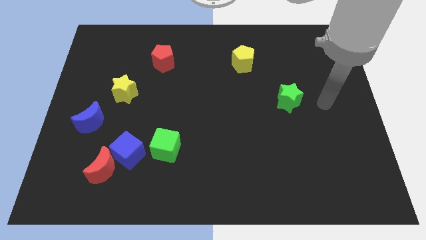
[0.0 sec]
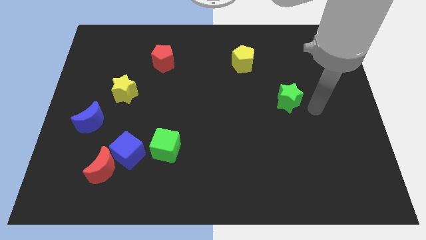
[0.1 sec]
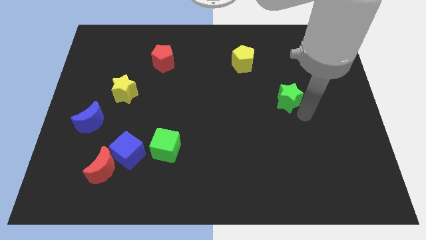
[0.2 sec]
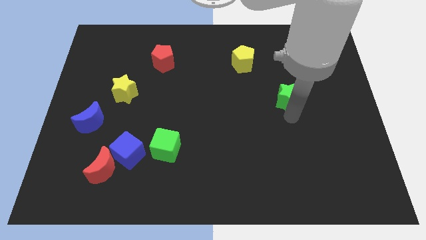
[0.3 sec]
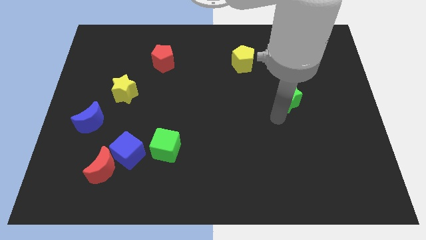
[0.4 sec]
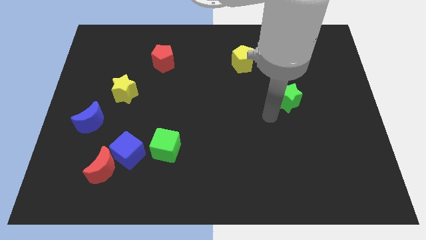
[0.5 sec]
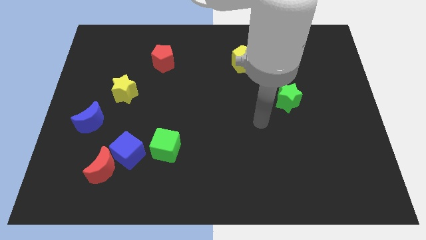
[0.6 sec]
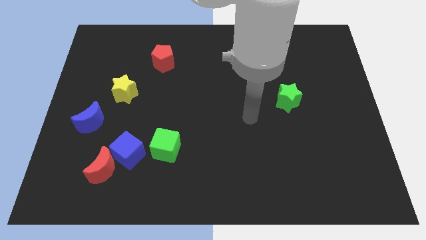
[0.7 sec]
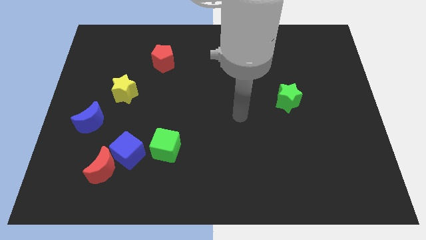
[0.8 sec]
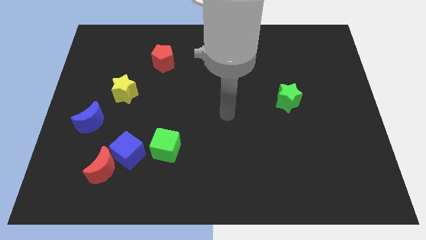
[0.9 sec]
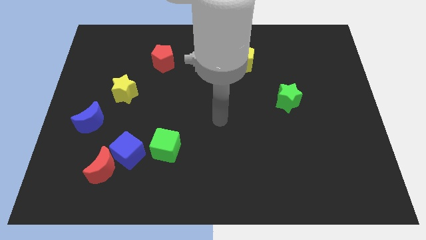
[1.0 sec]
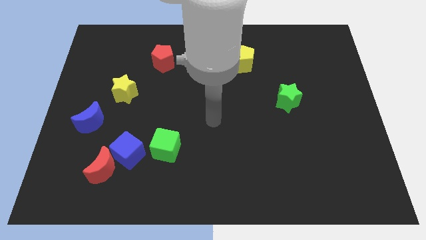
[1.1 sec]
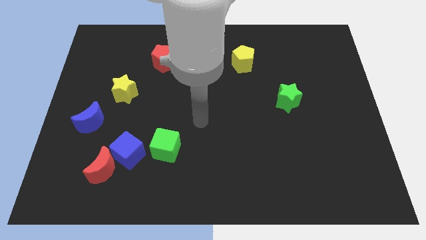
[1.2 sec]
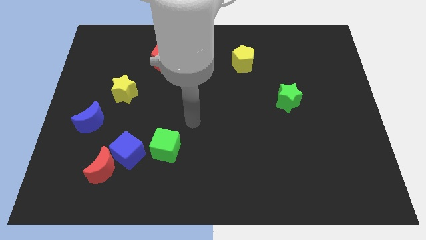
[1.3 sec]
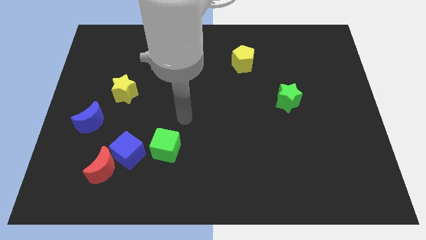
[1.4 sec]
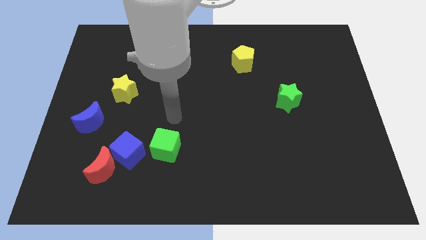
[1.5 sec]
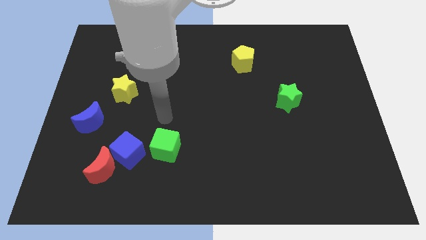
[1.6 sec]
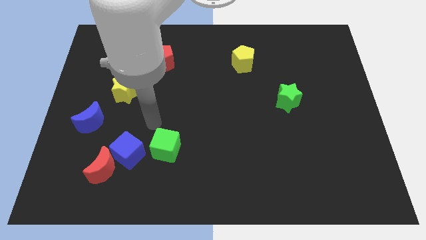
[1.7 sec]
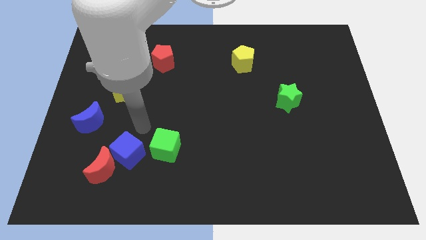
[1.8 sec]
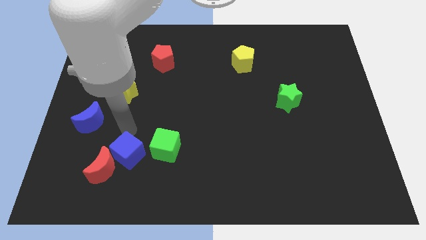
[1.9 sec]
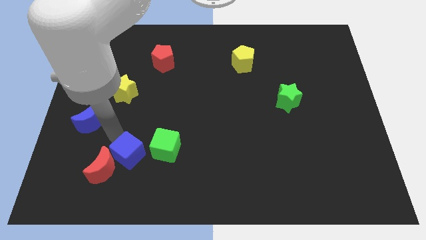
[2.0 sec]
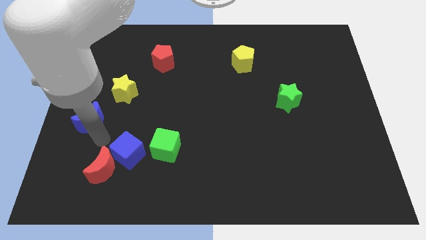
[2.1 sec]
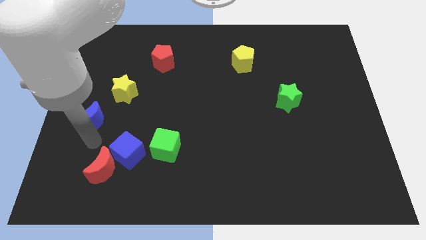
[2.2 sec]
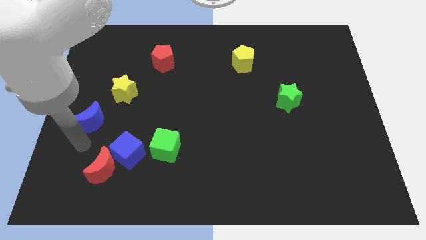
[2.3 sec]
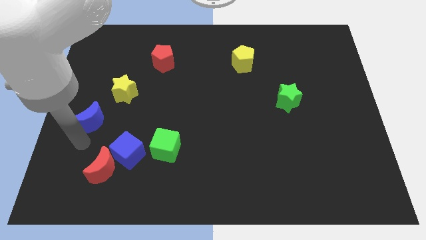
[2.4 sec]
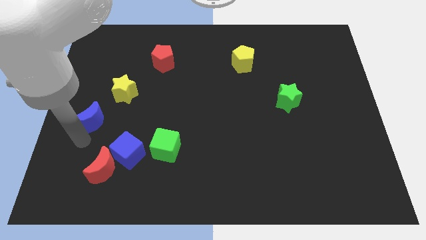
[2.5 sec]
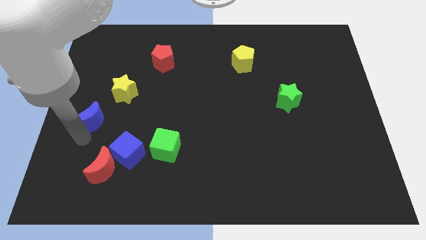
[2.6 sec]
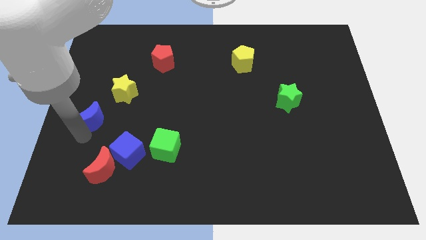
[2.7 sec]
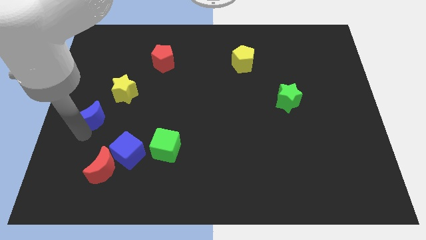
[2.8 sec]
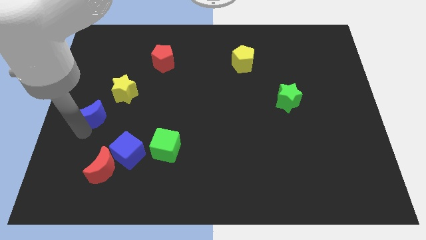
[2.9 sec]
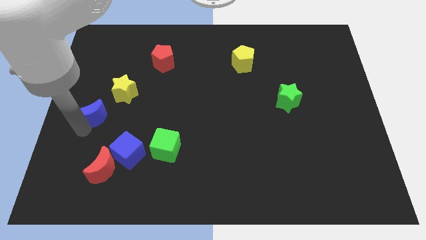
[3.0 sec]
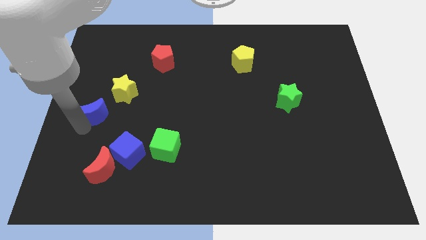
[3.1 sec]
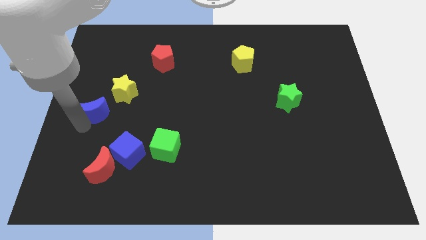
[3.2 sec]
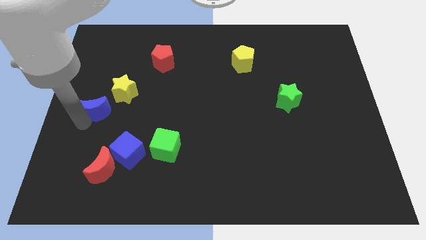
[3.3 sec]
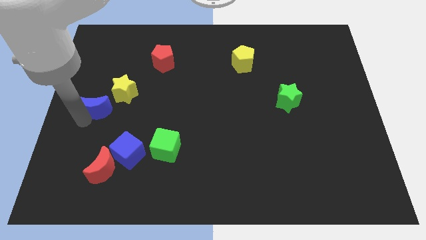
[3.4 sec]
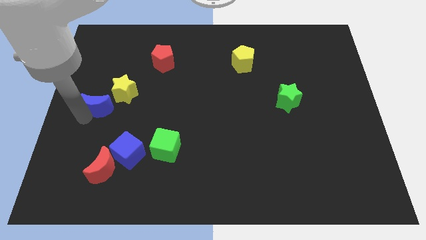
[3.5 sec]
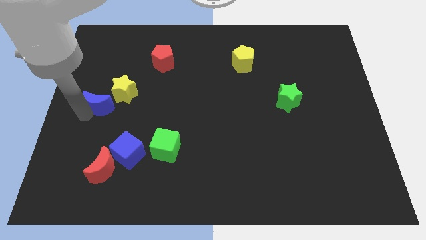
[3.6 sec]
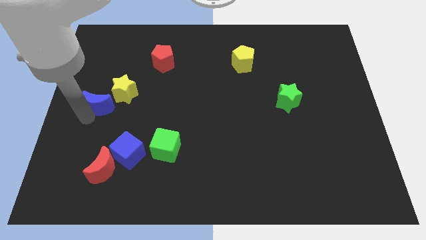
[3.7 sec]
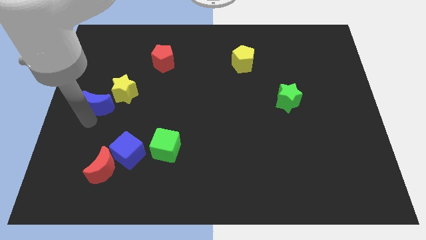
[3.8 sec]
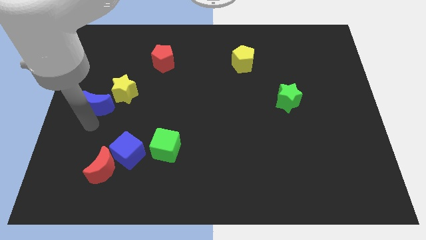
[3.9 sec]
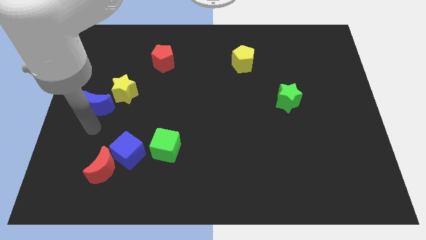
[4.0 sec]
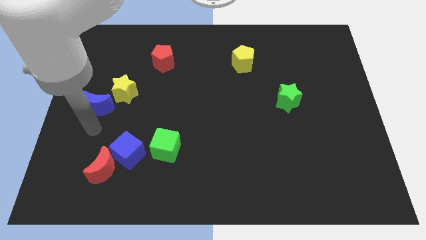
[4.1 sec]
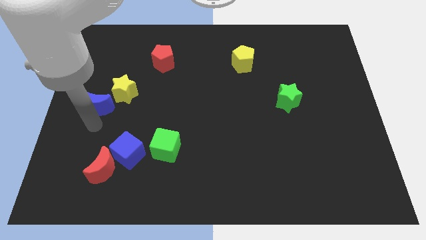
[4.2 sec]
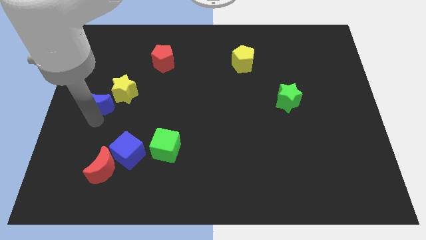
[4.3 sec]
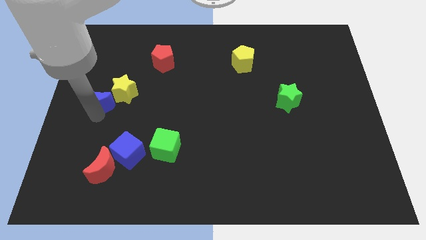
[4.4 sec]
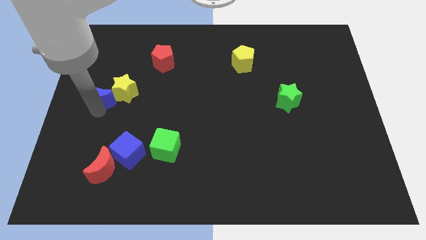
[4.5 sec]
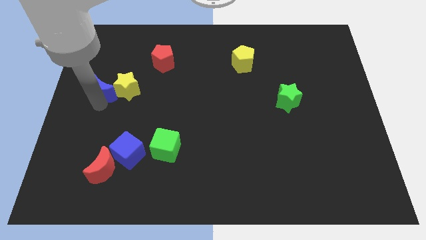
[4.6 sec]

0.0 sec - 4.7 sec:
slide the blue moon up a little bit

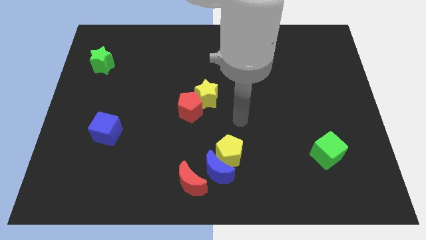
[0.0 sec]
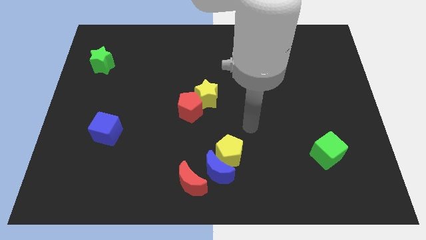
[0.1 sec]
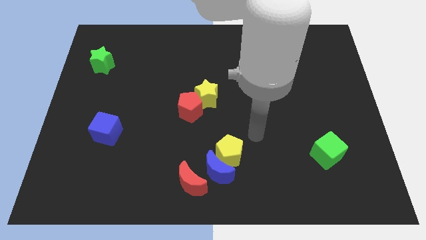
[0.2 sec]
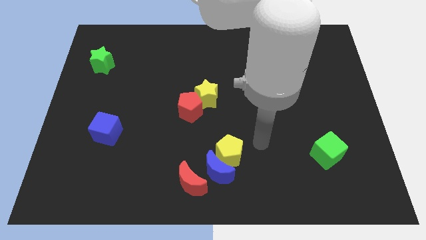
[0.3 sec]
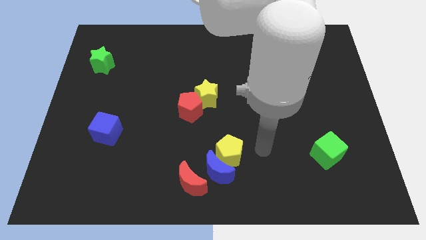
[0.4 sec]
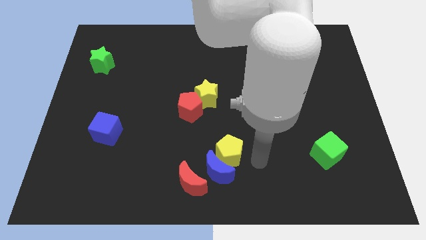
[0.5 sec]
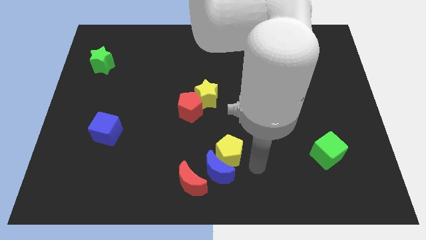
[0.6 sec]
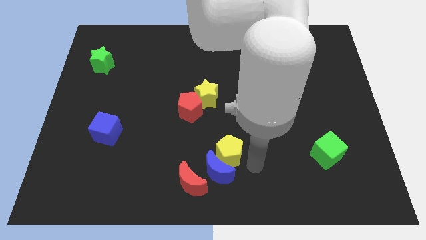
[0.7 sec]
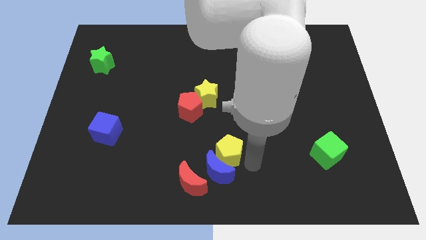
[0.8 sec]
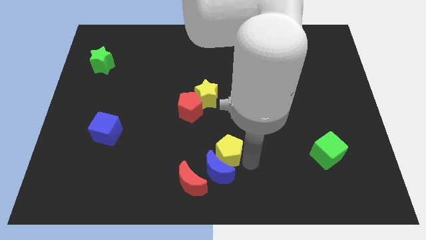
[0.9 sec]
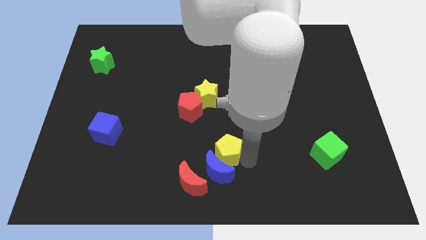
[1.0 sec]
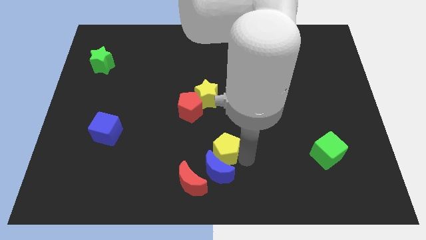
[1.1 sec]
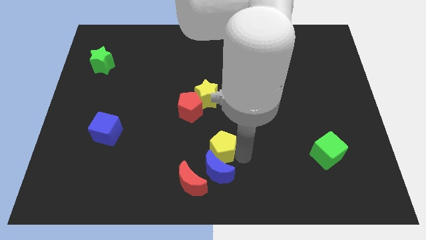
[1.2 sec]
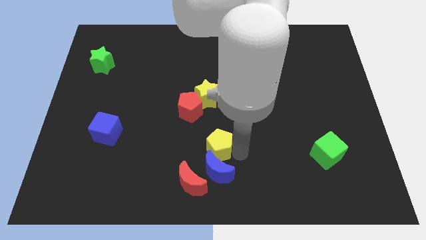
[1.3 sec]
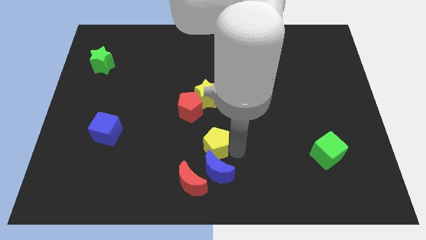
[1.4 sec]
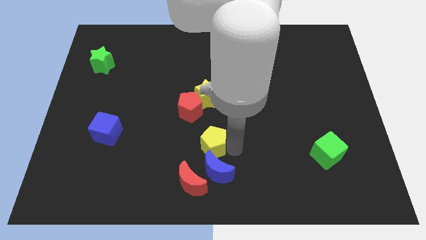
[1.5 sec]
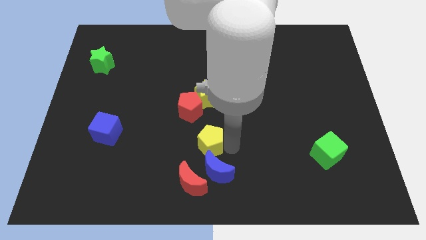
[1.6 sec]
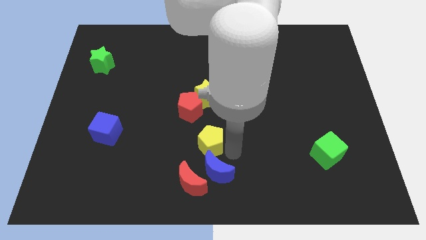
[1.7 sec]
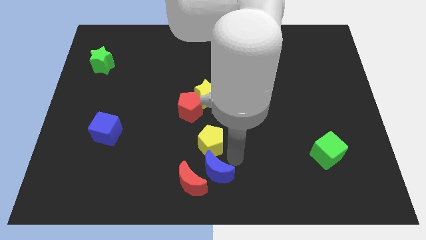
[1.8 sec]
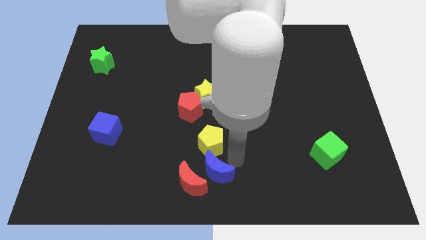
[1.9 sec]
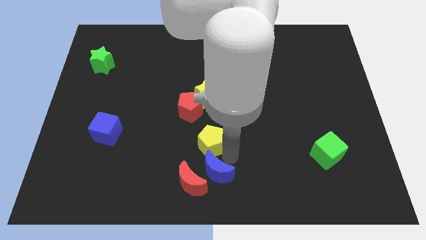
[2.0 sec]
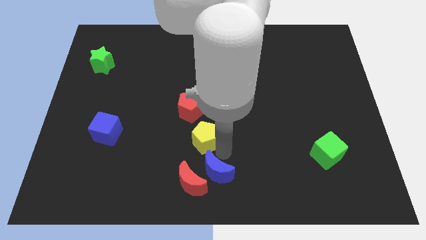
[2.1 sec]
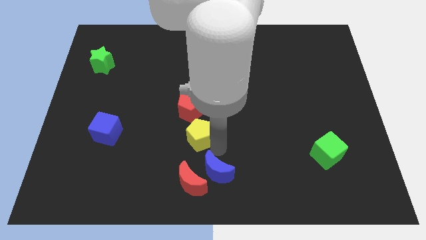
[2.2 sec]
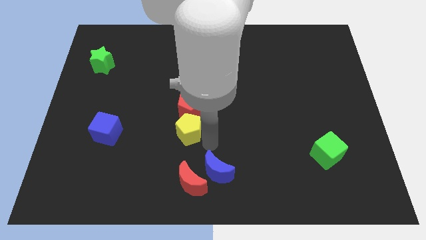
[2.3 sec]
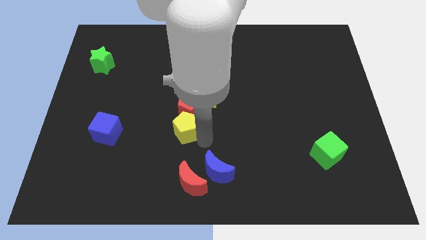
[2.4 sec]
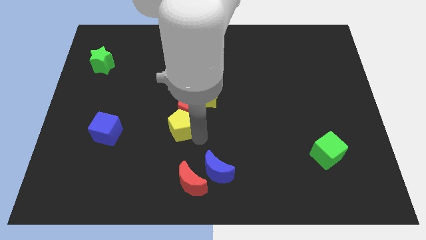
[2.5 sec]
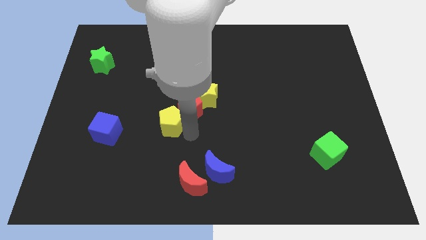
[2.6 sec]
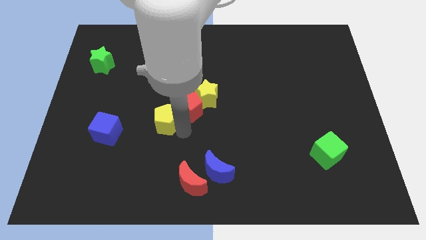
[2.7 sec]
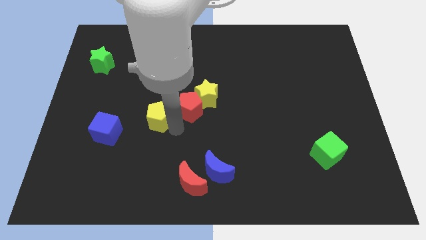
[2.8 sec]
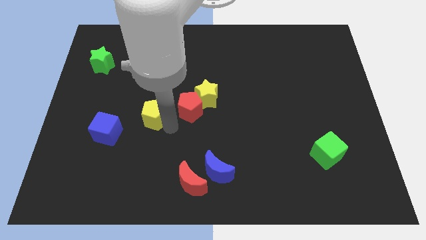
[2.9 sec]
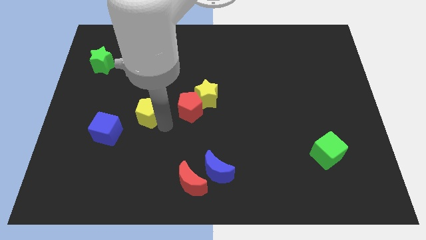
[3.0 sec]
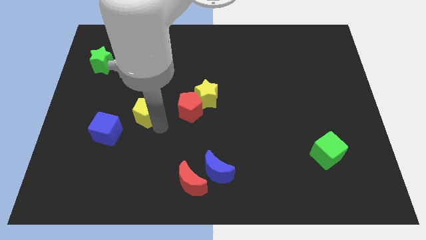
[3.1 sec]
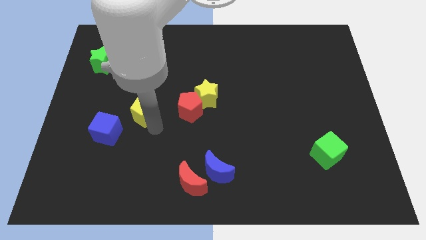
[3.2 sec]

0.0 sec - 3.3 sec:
slide the yellow pentagon up and then left
